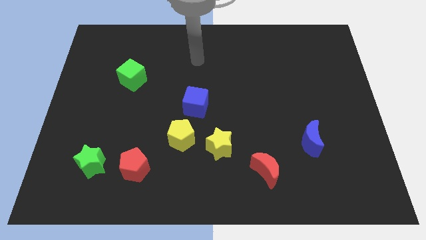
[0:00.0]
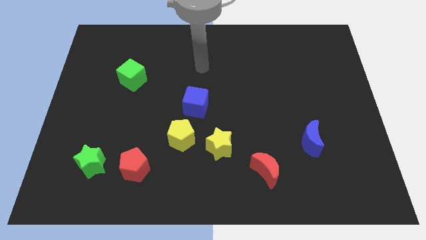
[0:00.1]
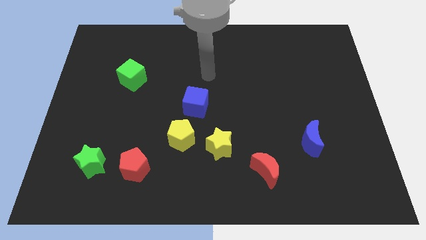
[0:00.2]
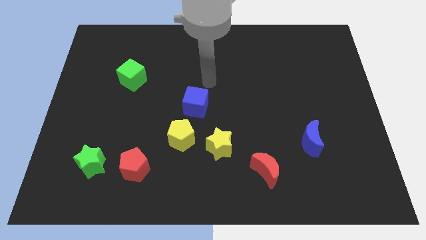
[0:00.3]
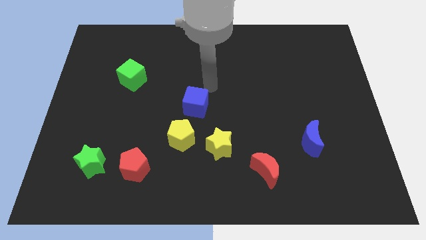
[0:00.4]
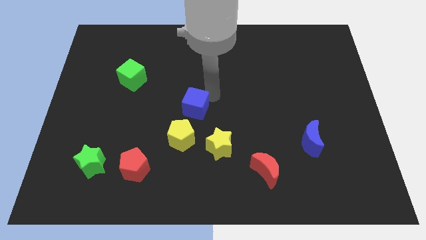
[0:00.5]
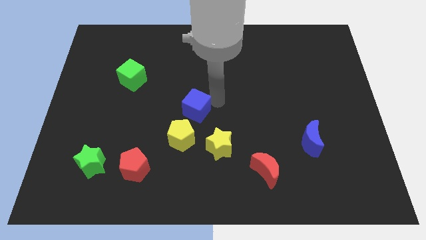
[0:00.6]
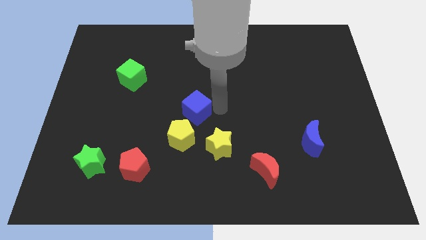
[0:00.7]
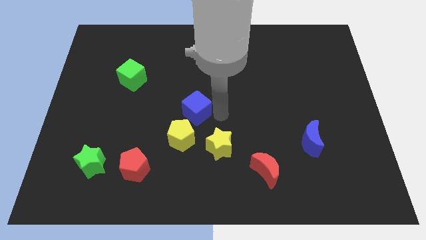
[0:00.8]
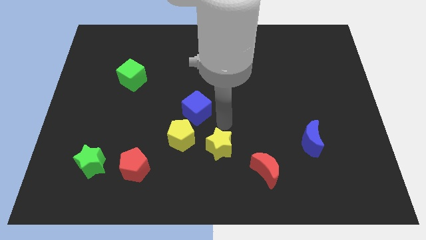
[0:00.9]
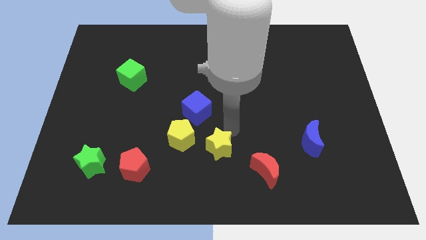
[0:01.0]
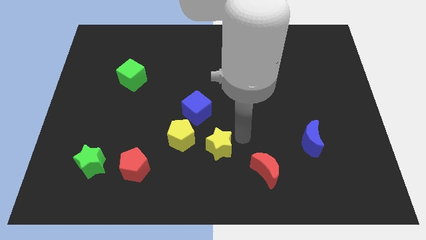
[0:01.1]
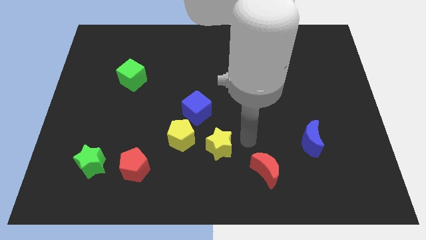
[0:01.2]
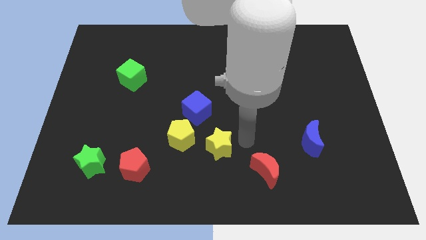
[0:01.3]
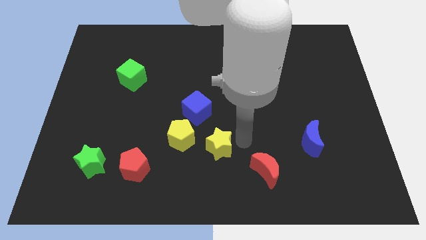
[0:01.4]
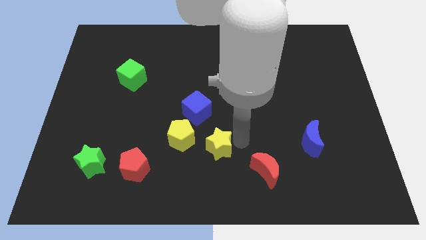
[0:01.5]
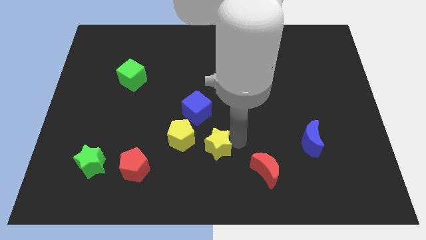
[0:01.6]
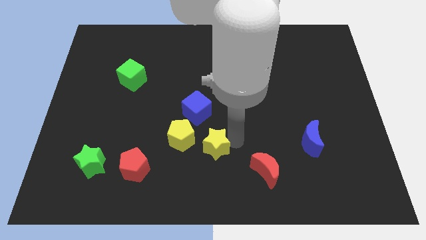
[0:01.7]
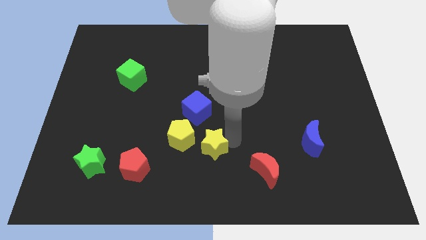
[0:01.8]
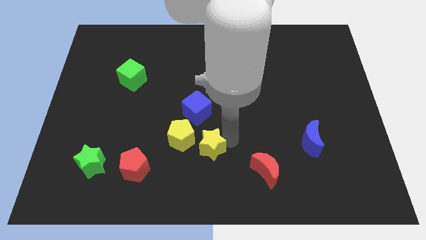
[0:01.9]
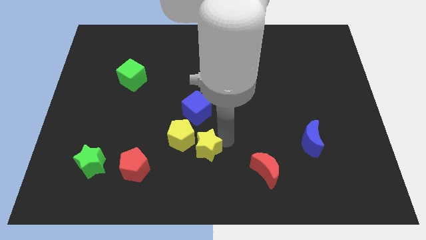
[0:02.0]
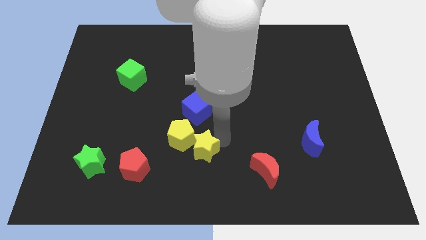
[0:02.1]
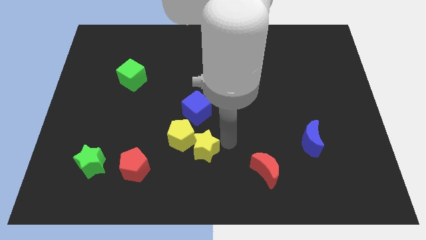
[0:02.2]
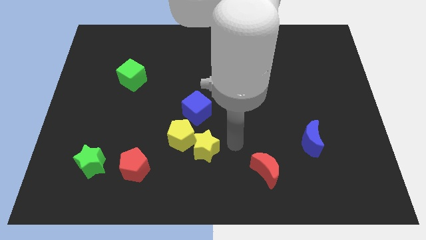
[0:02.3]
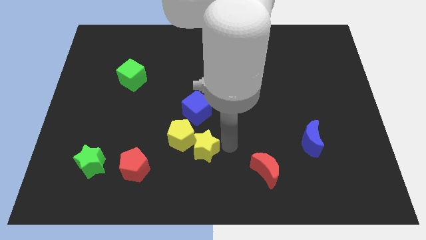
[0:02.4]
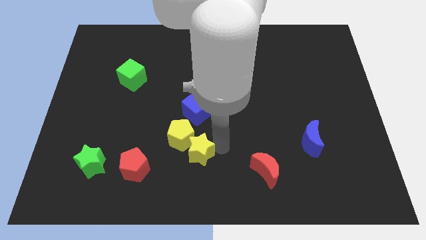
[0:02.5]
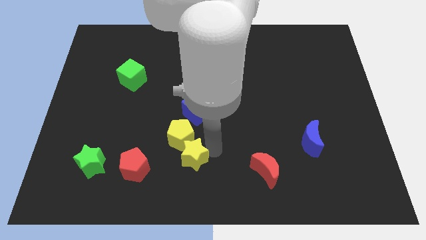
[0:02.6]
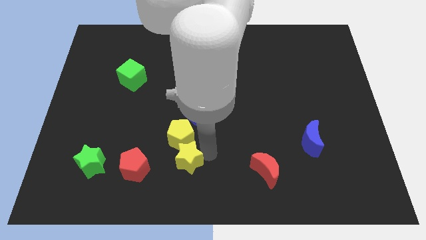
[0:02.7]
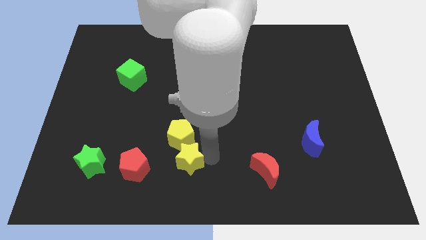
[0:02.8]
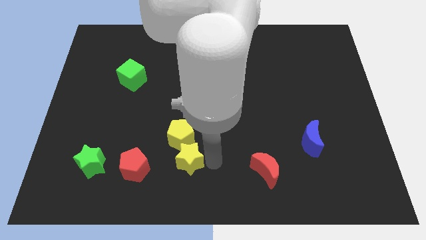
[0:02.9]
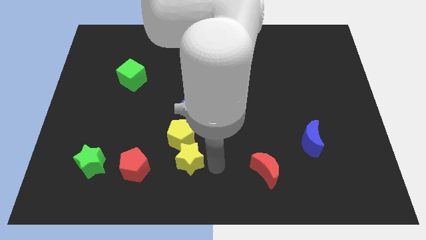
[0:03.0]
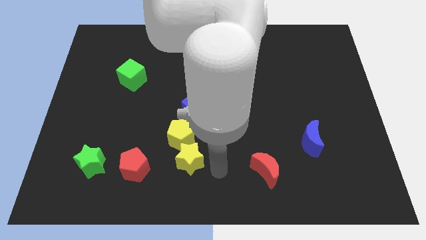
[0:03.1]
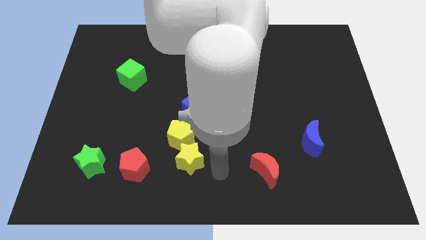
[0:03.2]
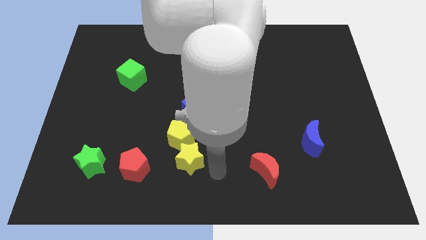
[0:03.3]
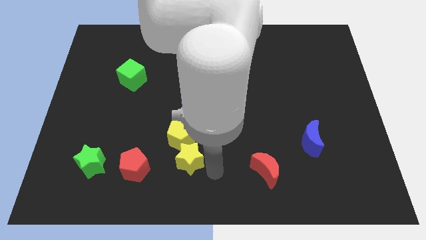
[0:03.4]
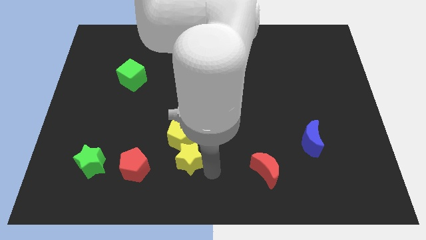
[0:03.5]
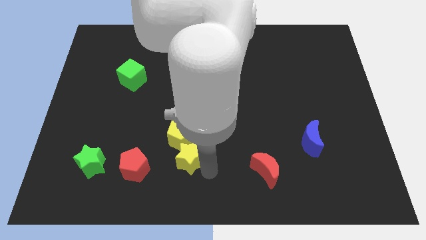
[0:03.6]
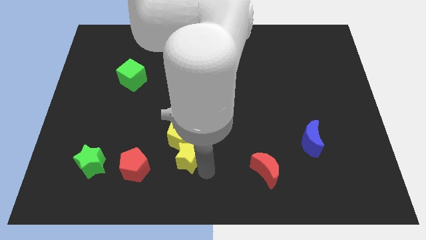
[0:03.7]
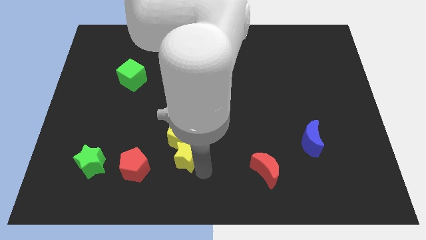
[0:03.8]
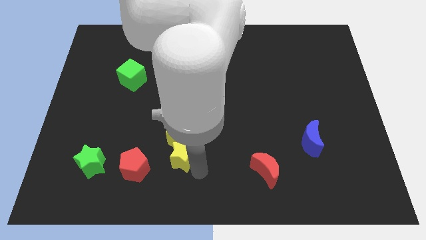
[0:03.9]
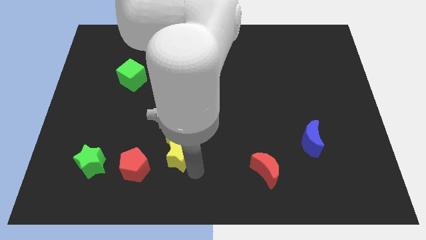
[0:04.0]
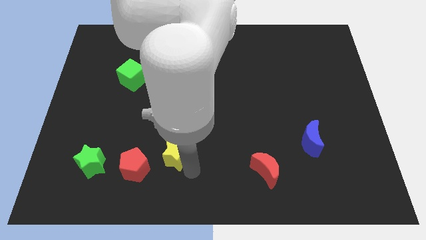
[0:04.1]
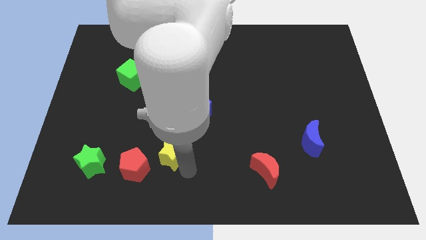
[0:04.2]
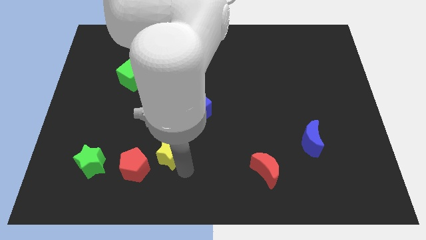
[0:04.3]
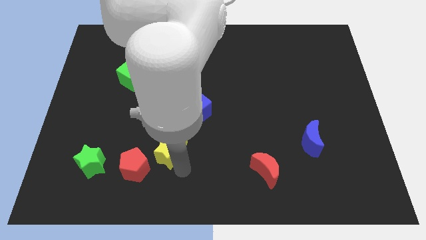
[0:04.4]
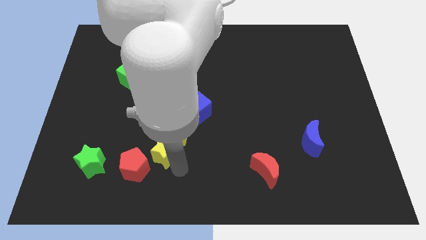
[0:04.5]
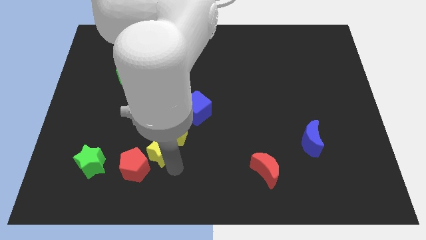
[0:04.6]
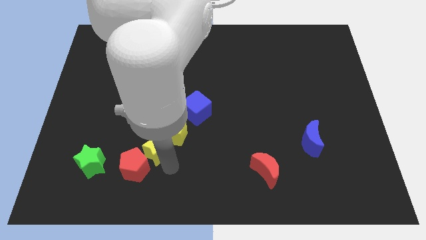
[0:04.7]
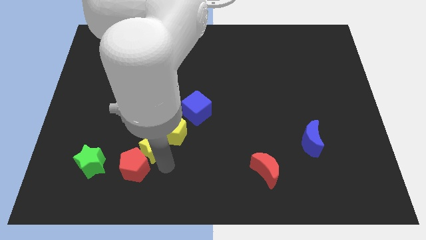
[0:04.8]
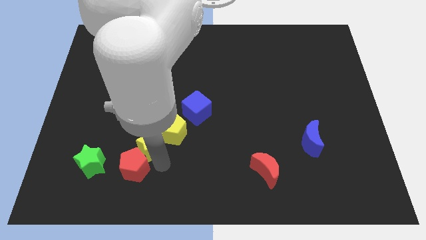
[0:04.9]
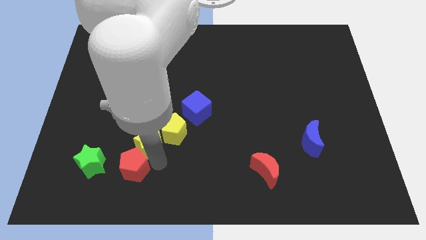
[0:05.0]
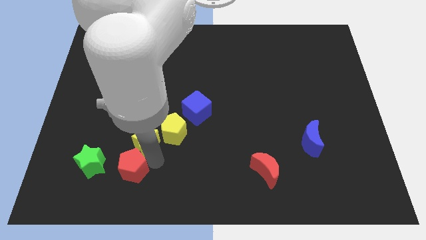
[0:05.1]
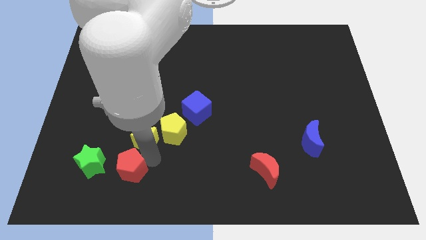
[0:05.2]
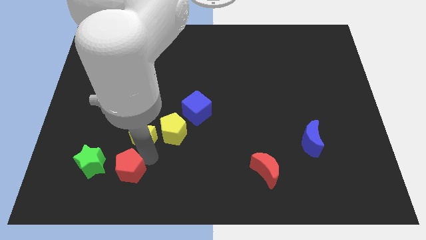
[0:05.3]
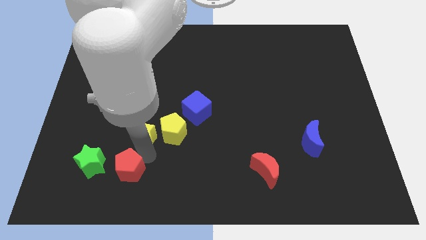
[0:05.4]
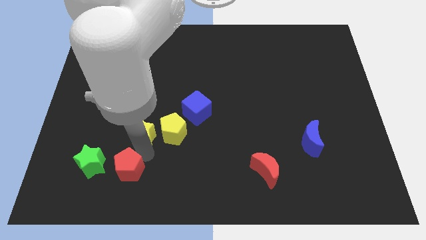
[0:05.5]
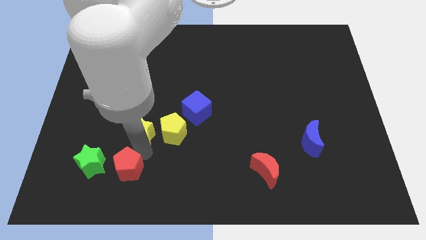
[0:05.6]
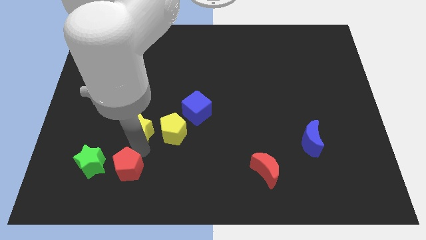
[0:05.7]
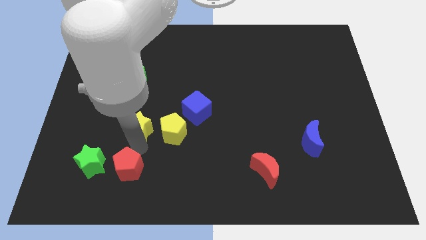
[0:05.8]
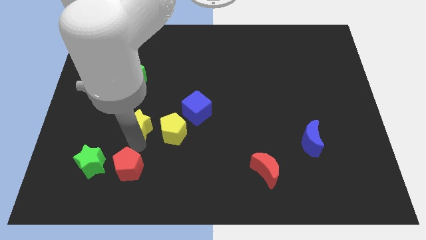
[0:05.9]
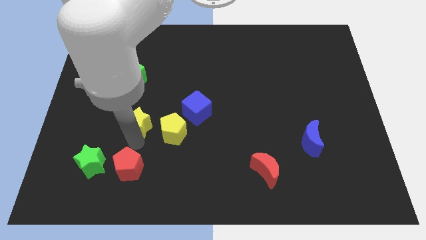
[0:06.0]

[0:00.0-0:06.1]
slide the yellow star to the bottom of the green cube

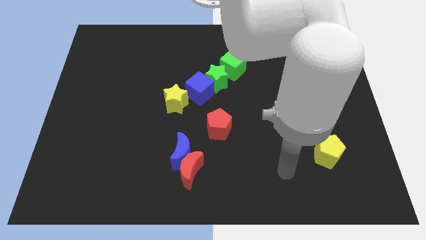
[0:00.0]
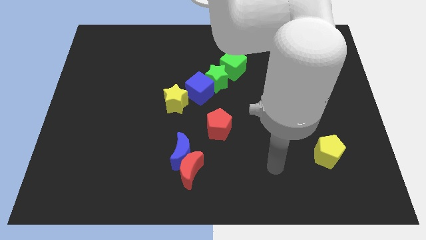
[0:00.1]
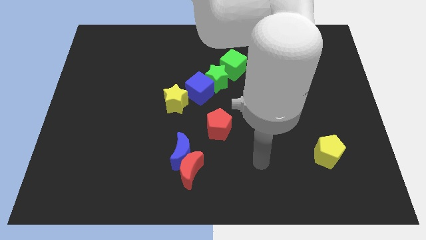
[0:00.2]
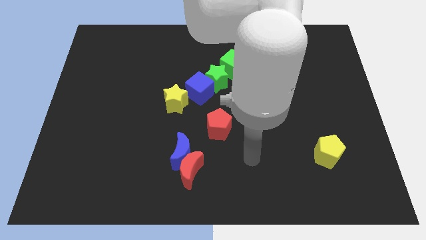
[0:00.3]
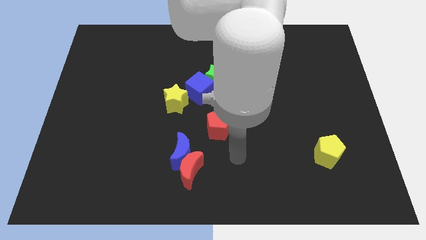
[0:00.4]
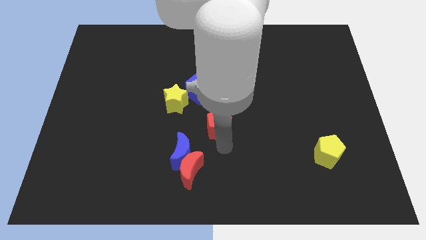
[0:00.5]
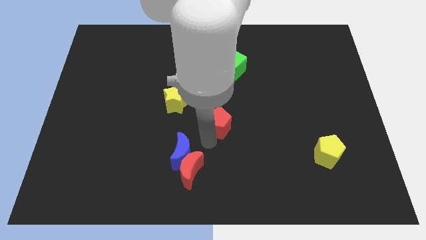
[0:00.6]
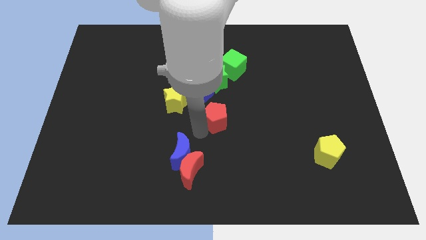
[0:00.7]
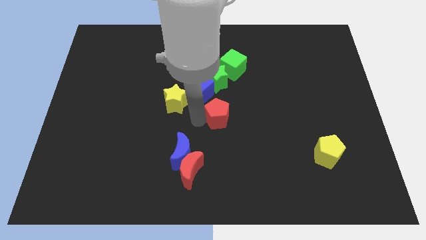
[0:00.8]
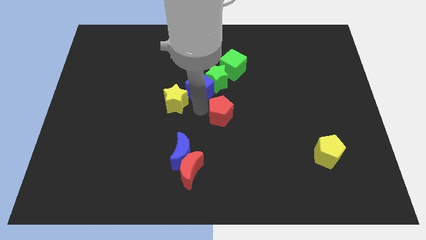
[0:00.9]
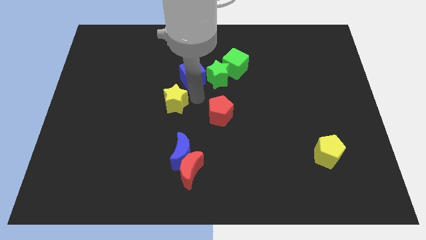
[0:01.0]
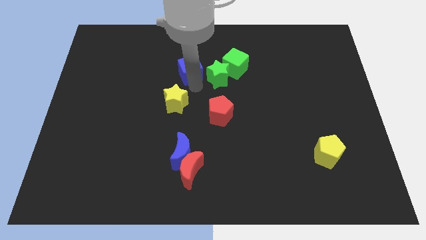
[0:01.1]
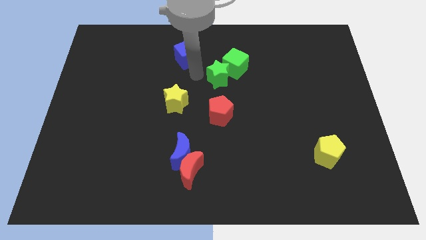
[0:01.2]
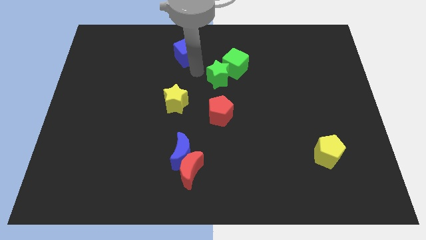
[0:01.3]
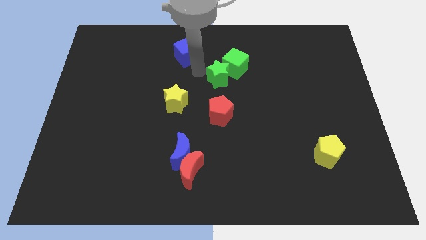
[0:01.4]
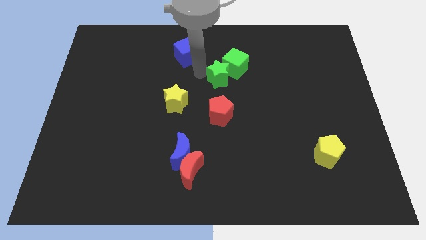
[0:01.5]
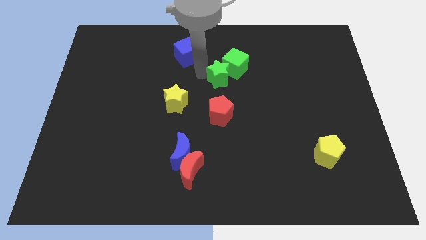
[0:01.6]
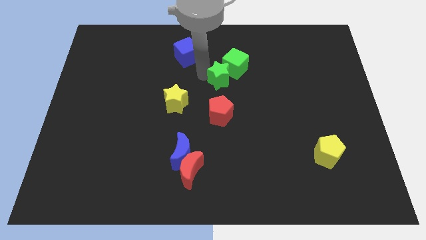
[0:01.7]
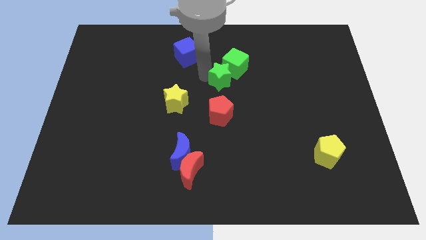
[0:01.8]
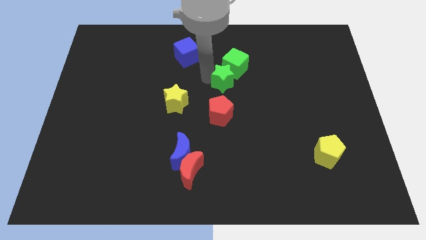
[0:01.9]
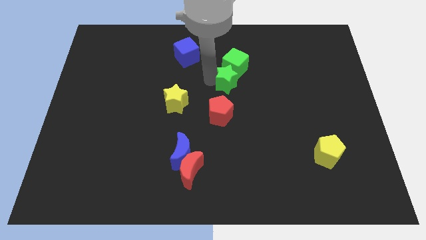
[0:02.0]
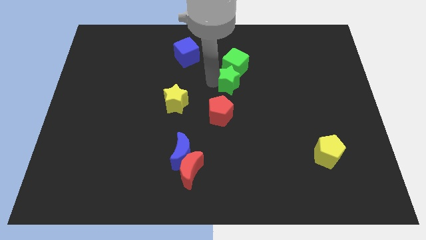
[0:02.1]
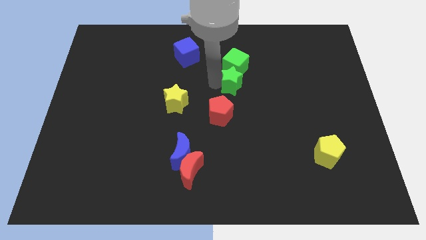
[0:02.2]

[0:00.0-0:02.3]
put the green star diagonally down and to the right of the green cube
